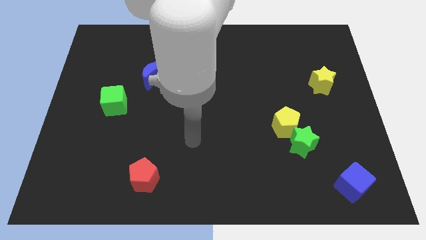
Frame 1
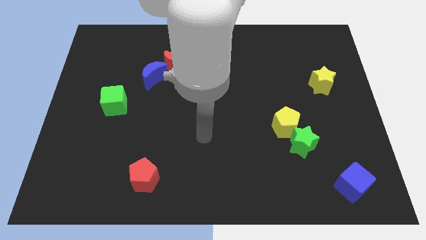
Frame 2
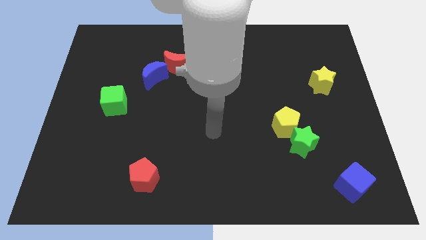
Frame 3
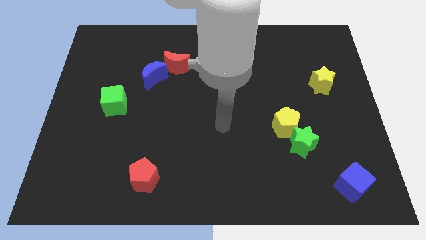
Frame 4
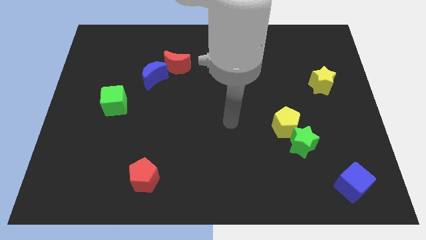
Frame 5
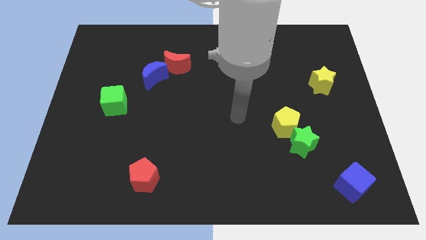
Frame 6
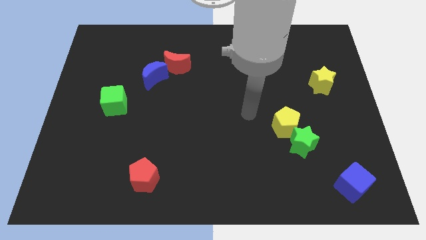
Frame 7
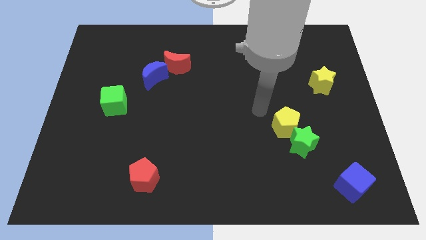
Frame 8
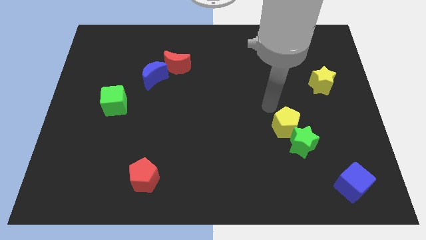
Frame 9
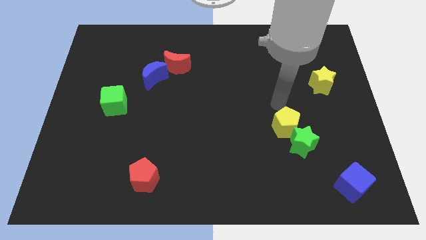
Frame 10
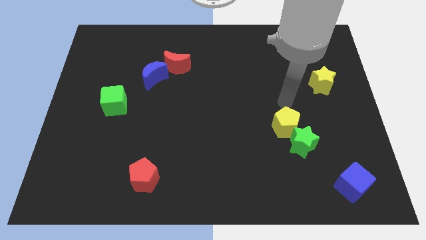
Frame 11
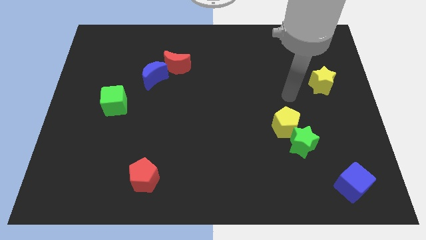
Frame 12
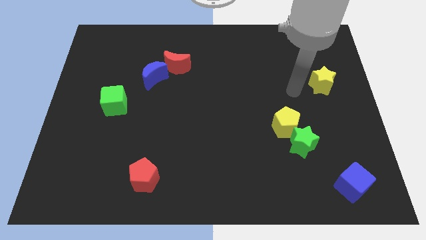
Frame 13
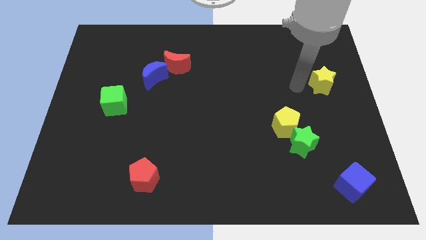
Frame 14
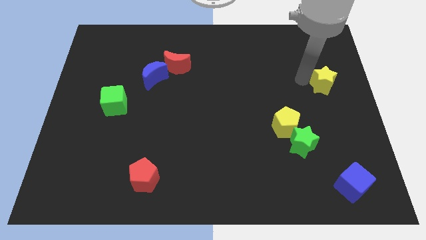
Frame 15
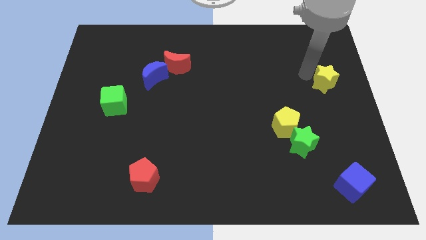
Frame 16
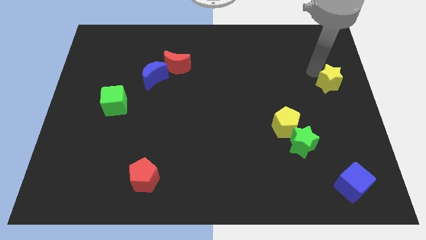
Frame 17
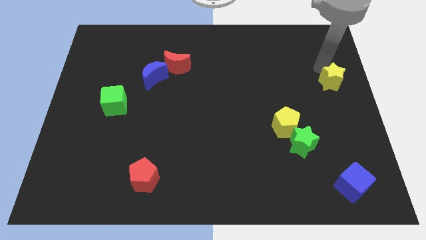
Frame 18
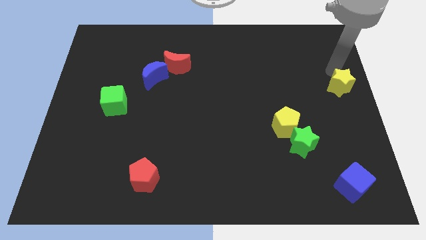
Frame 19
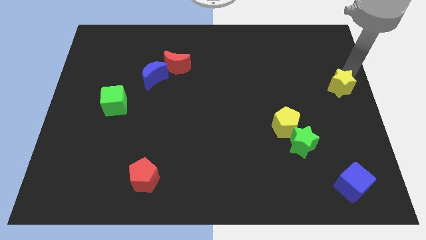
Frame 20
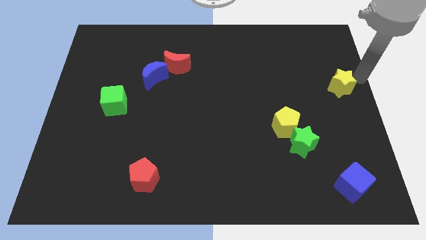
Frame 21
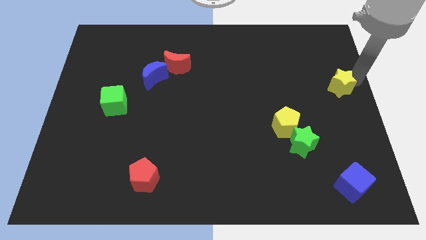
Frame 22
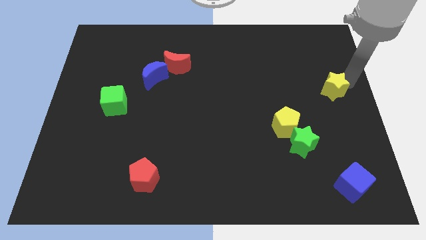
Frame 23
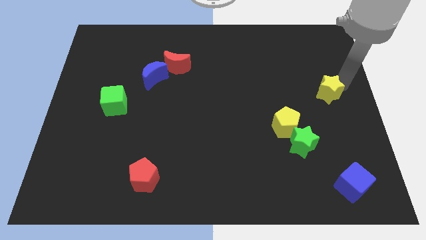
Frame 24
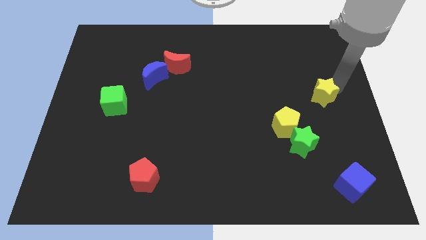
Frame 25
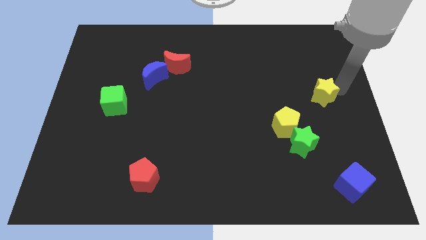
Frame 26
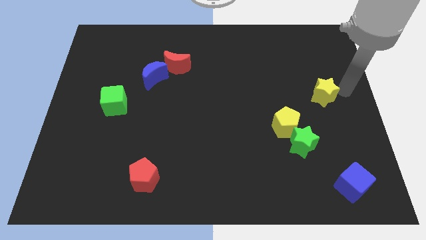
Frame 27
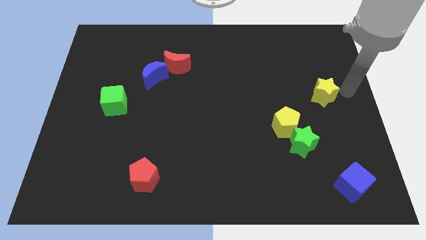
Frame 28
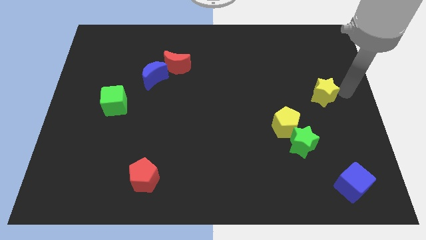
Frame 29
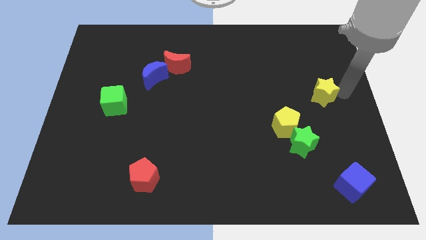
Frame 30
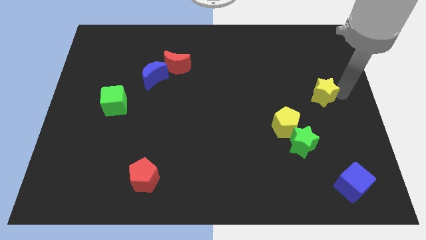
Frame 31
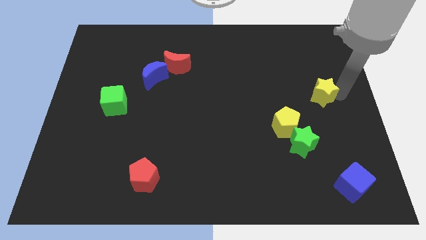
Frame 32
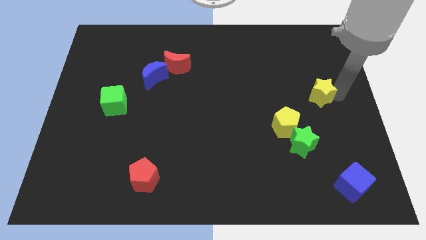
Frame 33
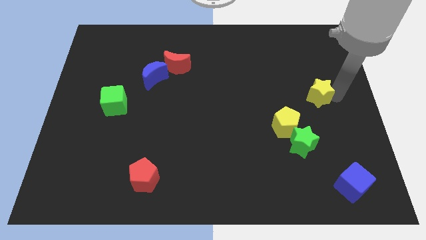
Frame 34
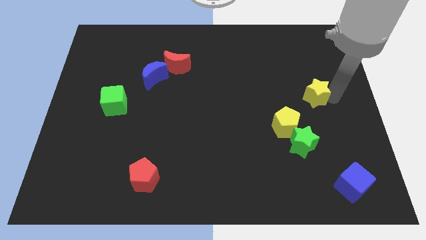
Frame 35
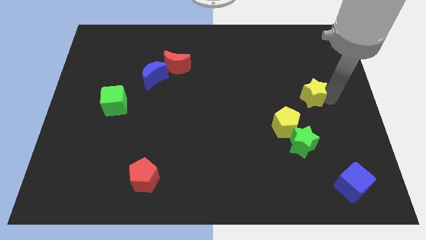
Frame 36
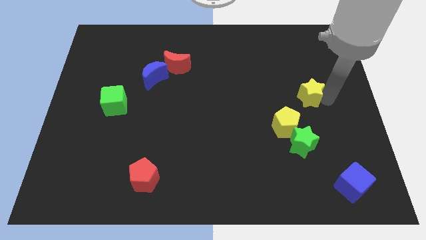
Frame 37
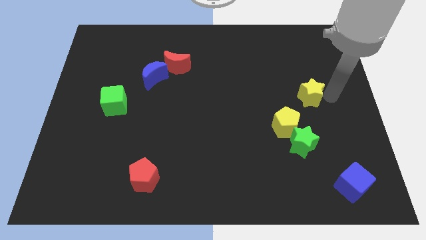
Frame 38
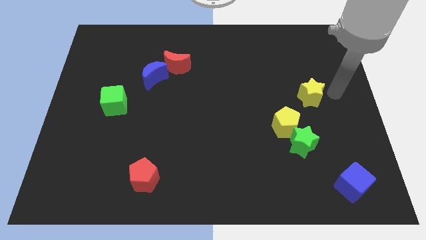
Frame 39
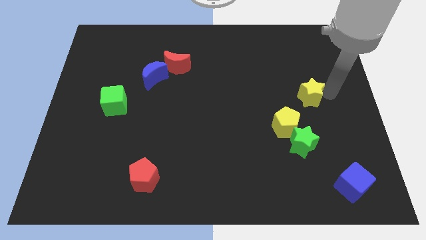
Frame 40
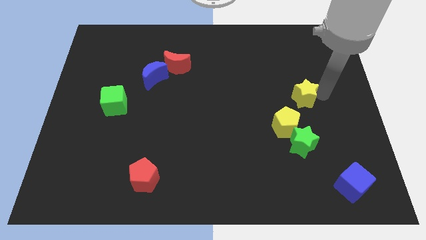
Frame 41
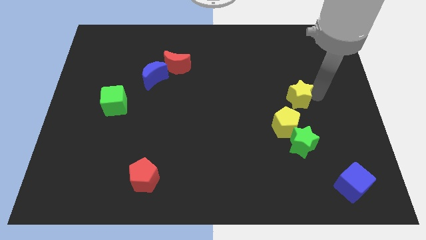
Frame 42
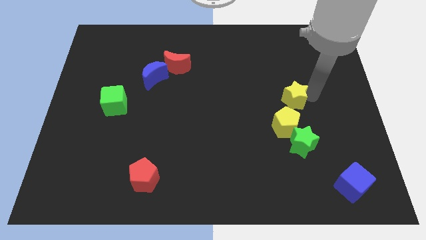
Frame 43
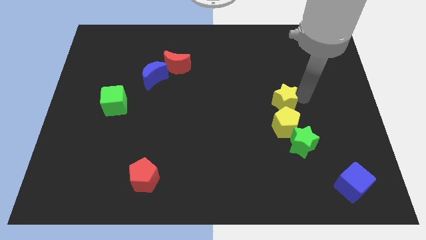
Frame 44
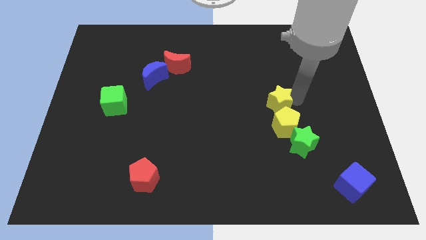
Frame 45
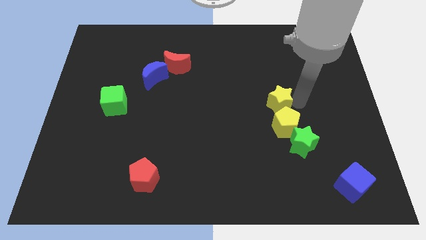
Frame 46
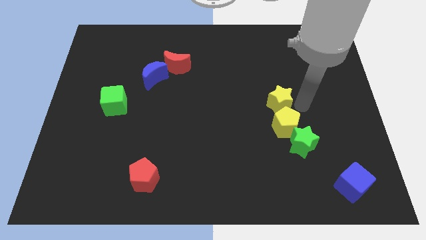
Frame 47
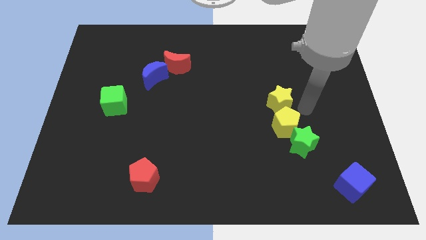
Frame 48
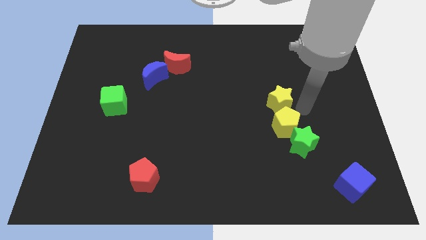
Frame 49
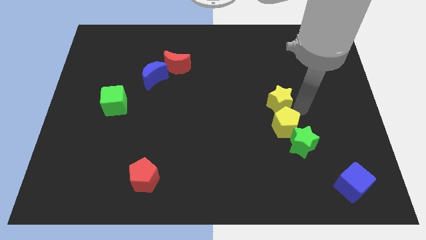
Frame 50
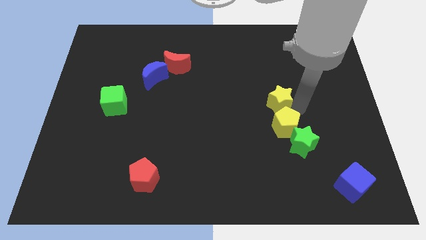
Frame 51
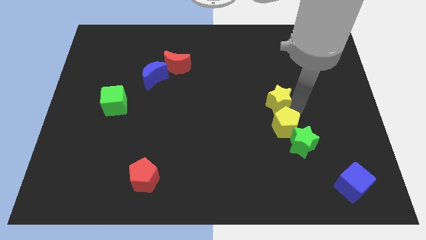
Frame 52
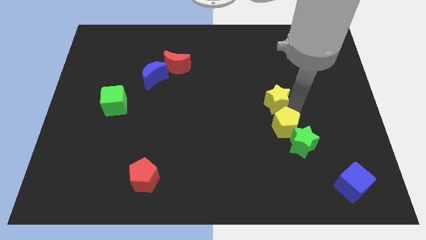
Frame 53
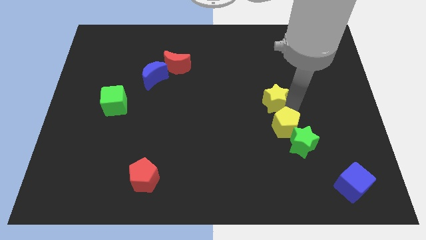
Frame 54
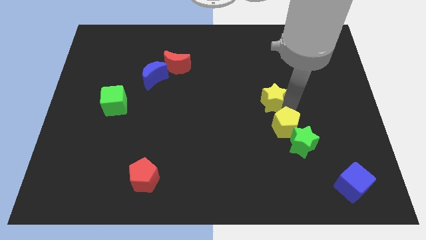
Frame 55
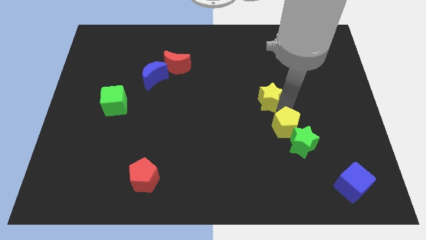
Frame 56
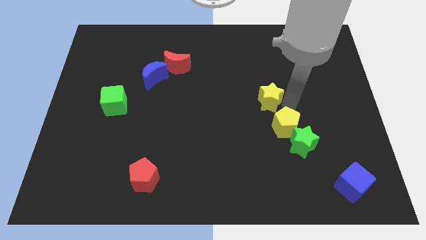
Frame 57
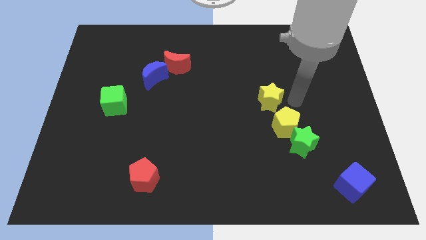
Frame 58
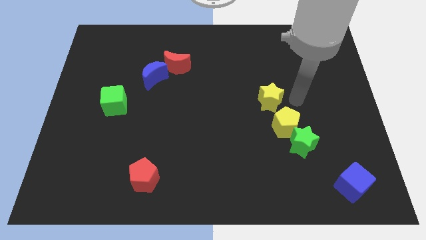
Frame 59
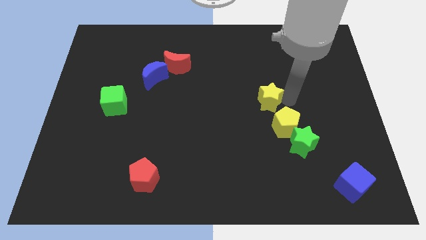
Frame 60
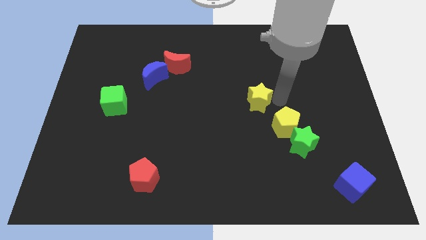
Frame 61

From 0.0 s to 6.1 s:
move the yellow star to the middle
